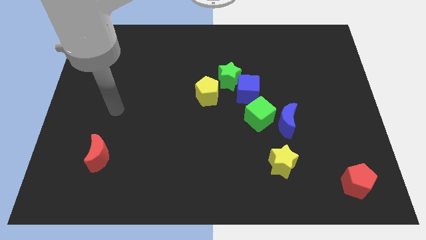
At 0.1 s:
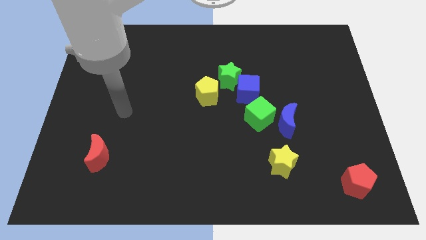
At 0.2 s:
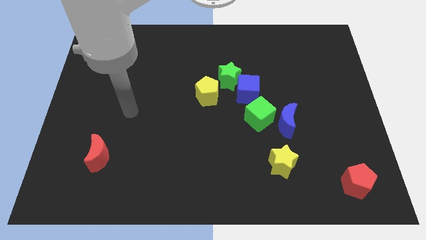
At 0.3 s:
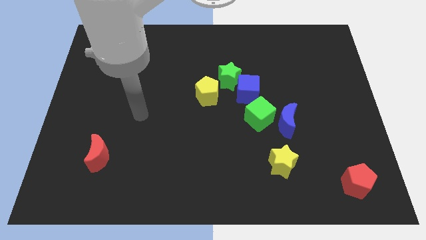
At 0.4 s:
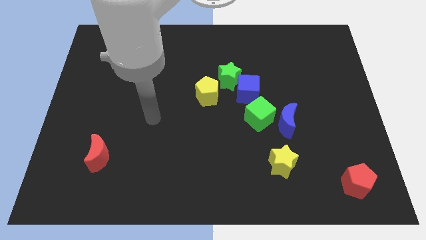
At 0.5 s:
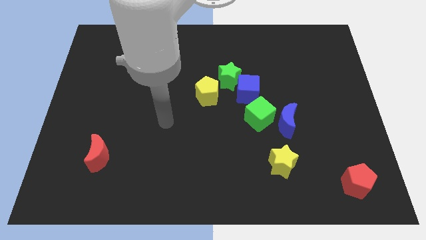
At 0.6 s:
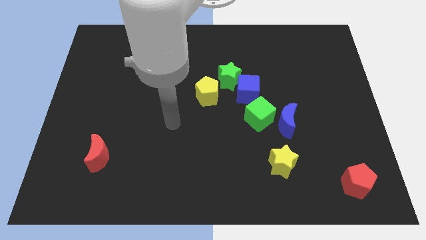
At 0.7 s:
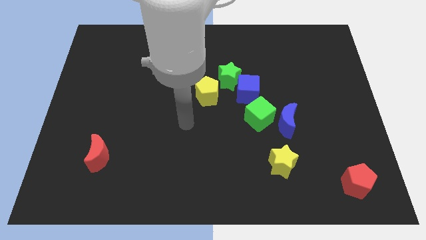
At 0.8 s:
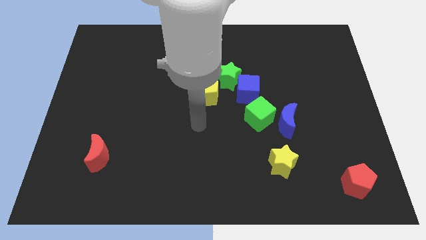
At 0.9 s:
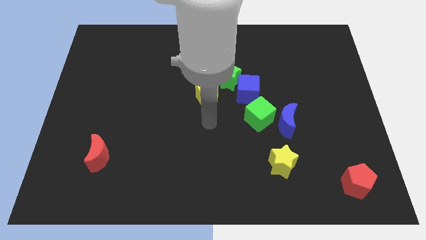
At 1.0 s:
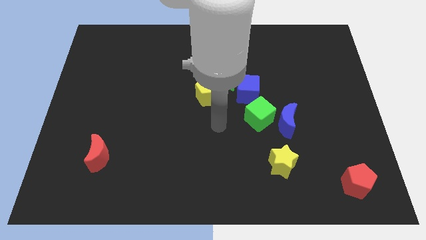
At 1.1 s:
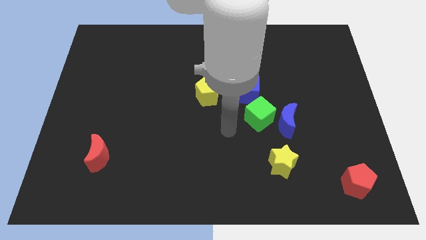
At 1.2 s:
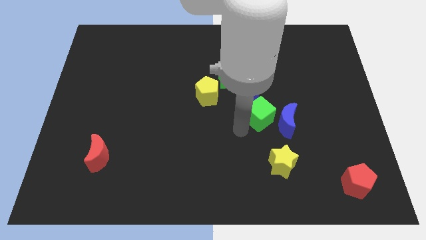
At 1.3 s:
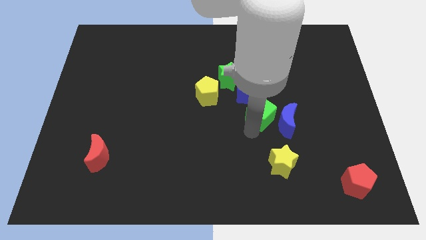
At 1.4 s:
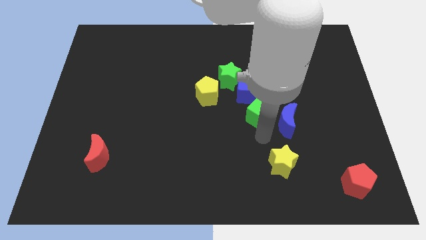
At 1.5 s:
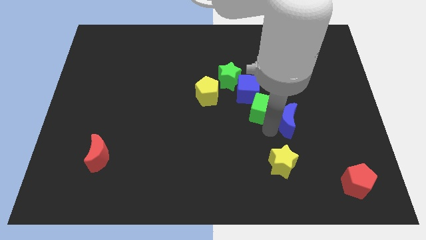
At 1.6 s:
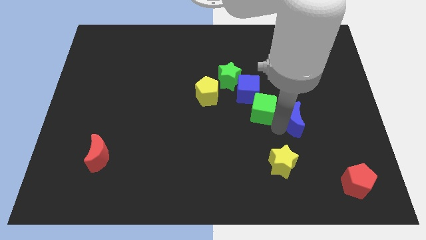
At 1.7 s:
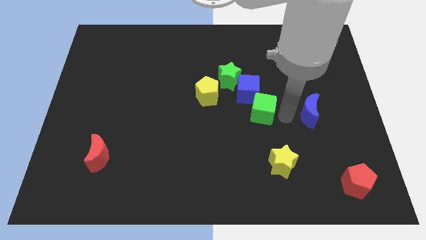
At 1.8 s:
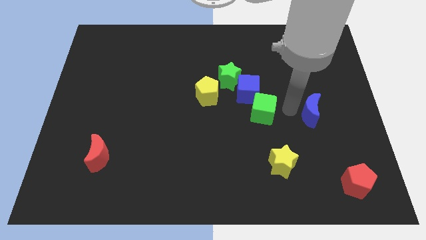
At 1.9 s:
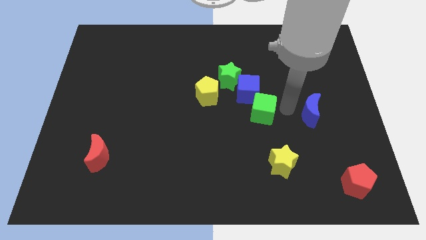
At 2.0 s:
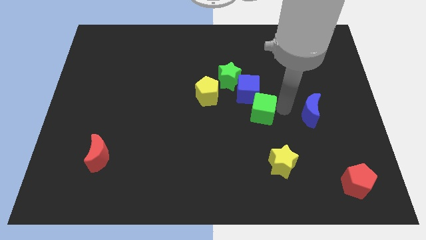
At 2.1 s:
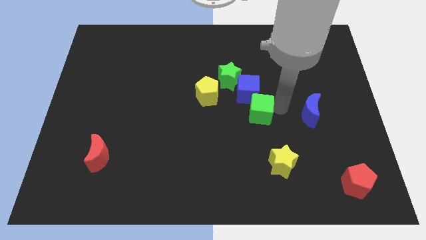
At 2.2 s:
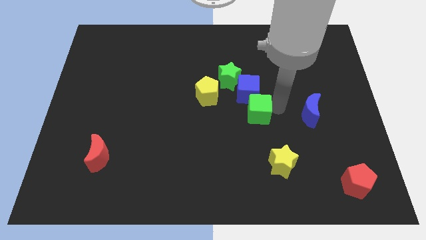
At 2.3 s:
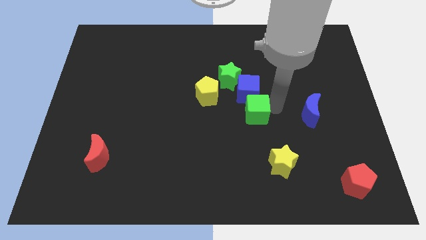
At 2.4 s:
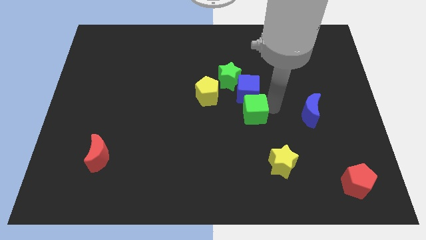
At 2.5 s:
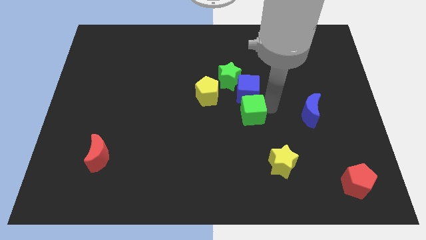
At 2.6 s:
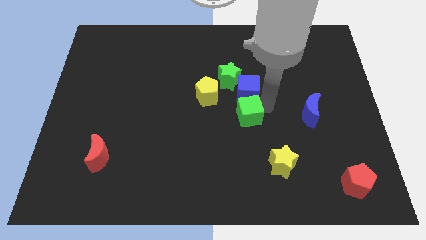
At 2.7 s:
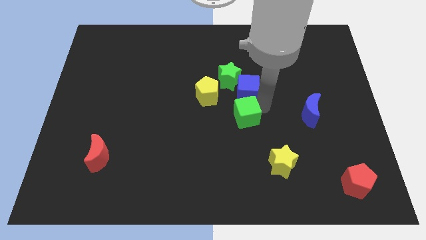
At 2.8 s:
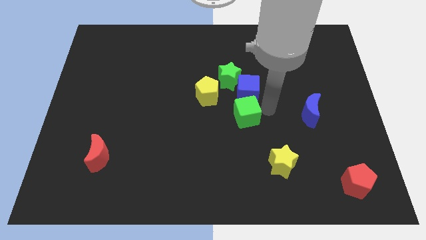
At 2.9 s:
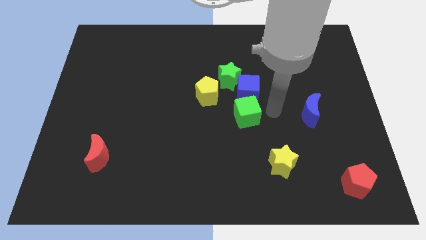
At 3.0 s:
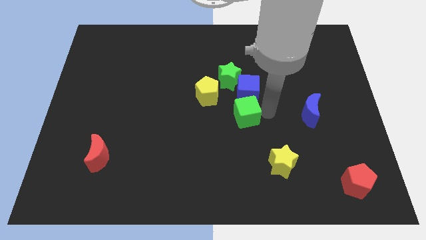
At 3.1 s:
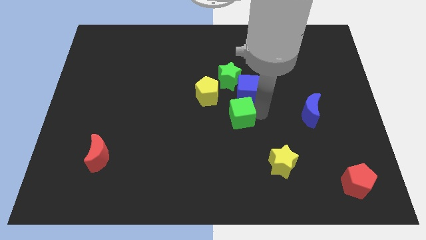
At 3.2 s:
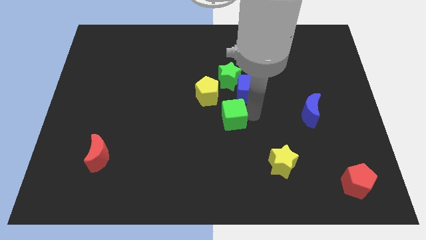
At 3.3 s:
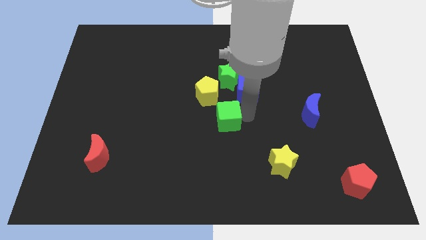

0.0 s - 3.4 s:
push the green cube somewhat to the left

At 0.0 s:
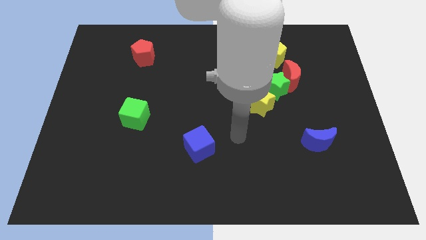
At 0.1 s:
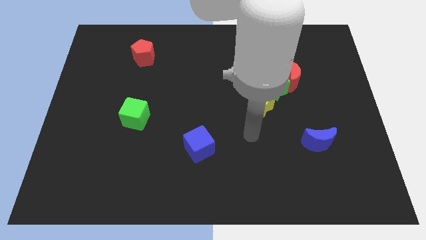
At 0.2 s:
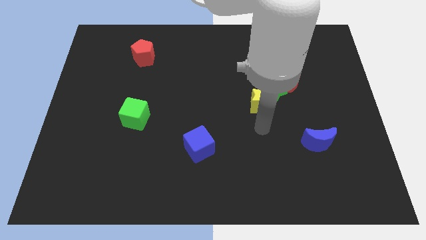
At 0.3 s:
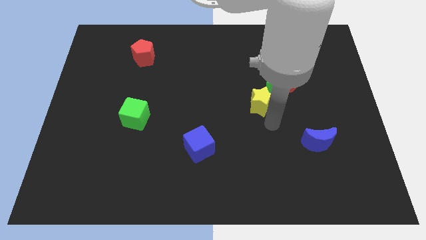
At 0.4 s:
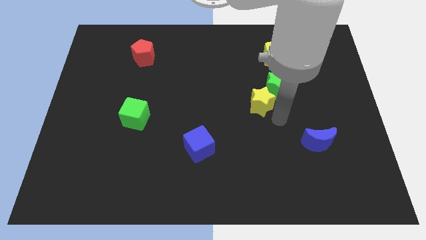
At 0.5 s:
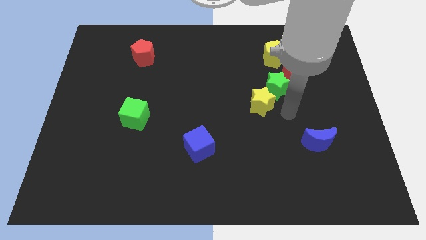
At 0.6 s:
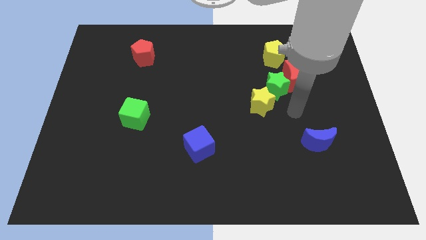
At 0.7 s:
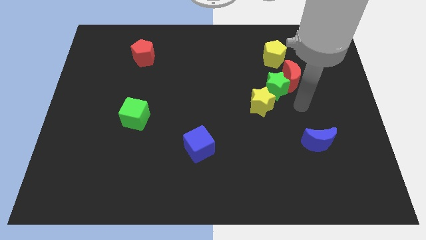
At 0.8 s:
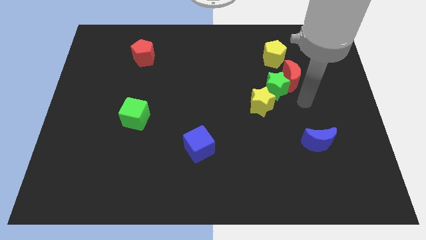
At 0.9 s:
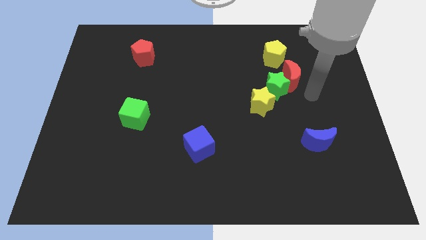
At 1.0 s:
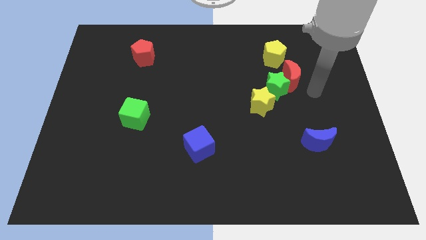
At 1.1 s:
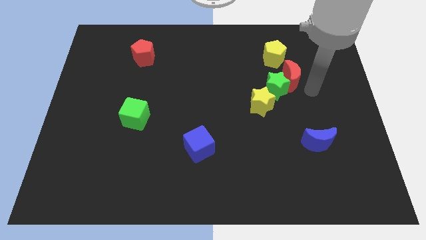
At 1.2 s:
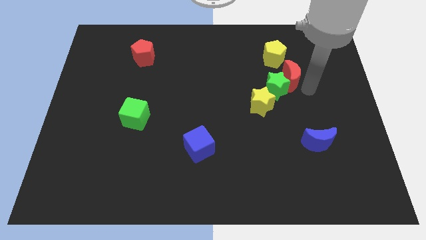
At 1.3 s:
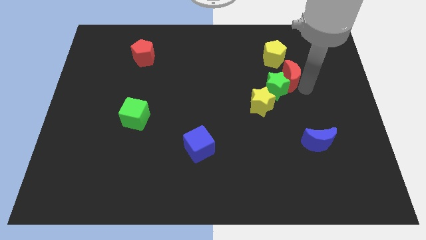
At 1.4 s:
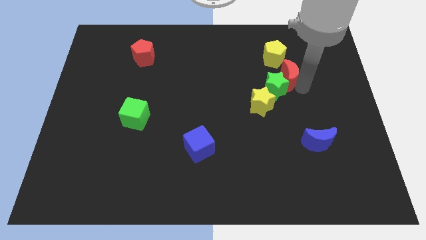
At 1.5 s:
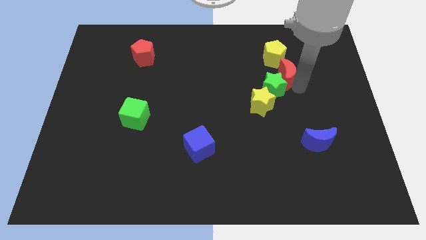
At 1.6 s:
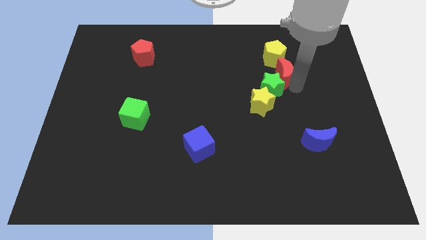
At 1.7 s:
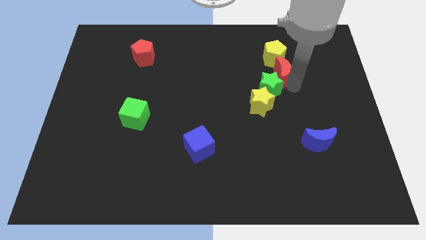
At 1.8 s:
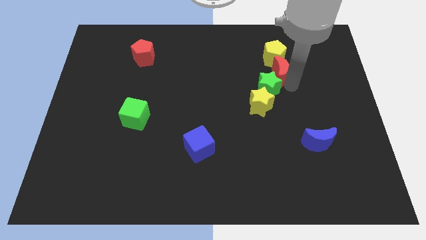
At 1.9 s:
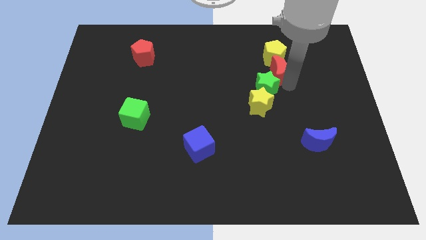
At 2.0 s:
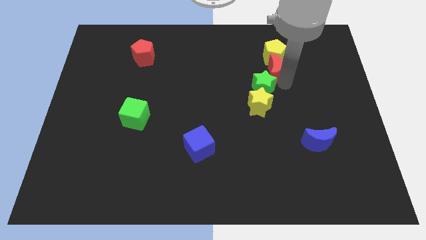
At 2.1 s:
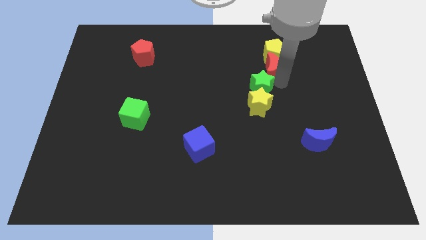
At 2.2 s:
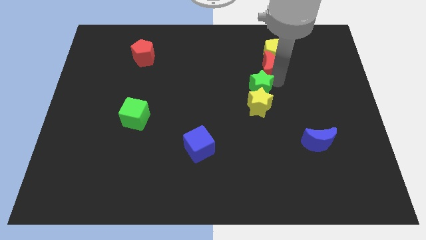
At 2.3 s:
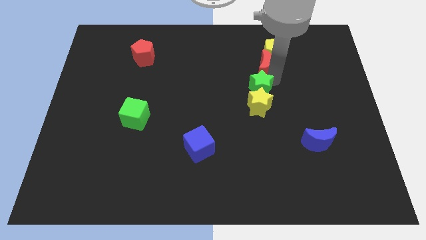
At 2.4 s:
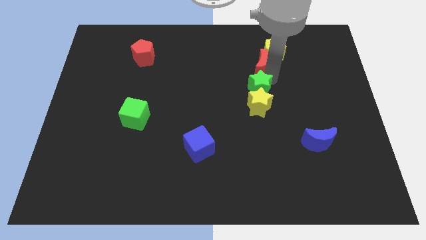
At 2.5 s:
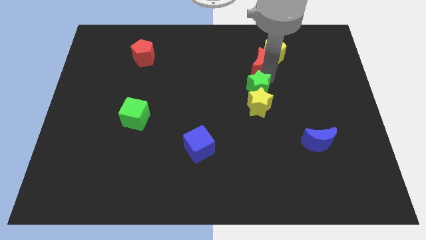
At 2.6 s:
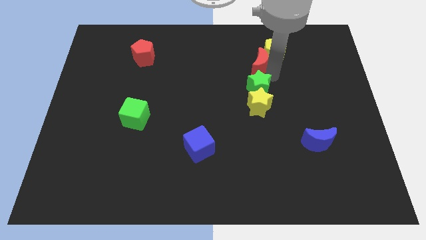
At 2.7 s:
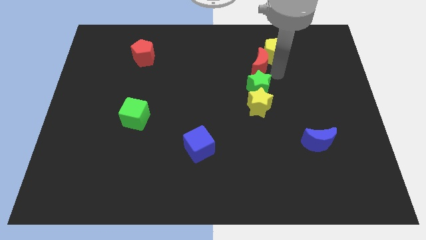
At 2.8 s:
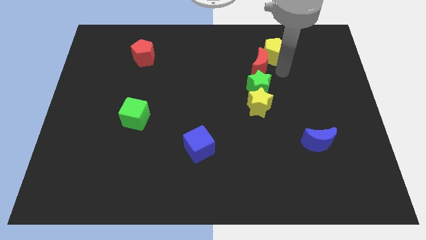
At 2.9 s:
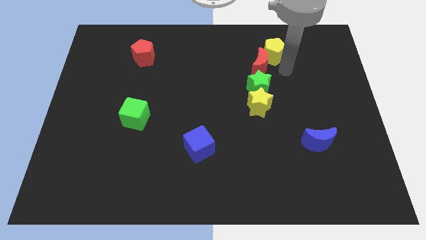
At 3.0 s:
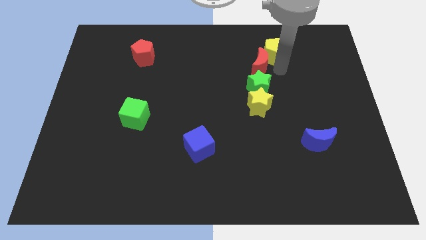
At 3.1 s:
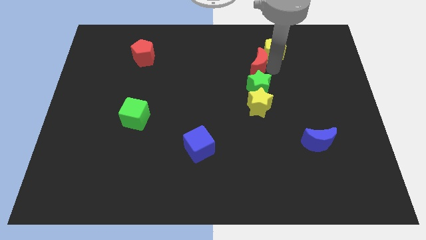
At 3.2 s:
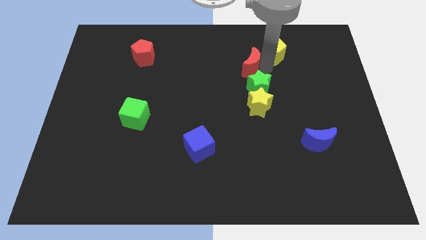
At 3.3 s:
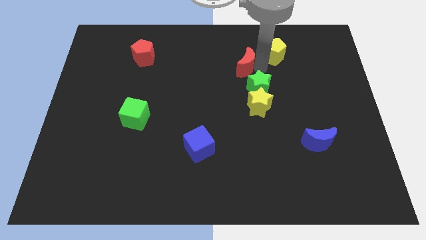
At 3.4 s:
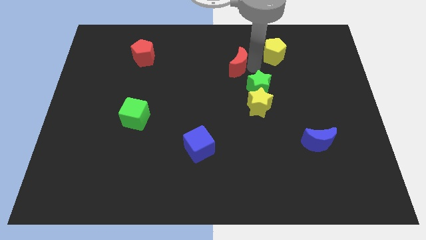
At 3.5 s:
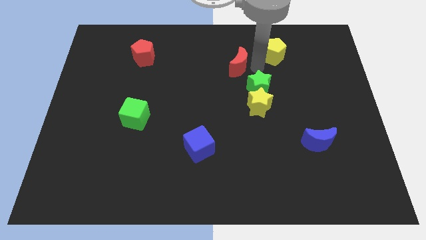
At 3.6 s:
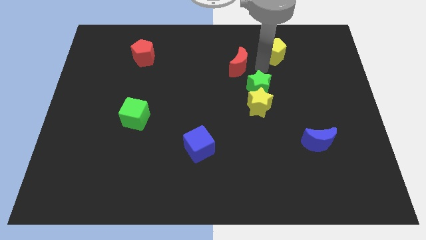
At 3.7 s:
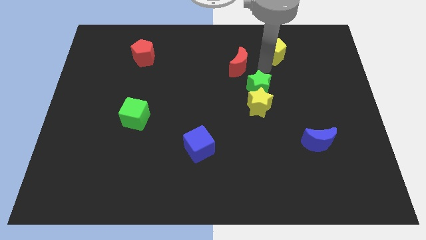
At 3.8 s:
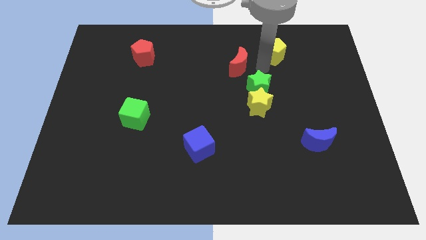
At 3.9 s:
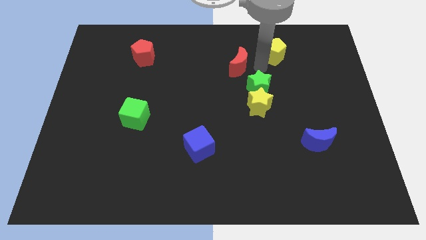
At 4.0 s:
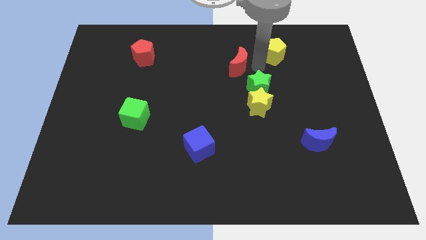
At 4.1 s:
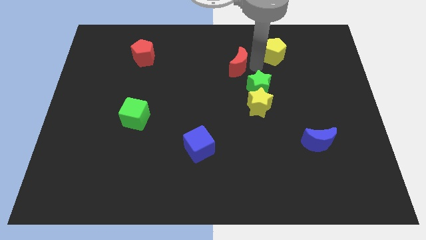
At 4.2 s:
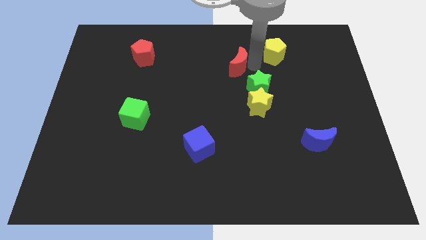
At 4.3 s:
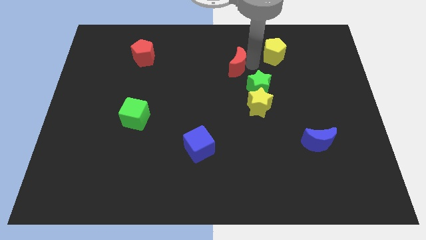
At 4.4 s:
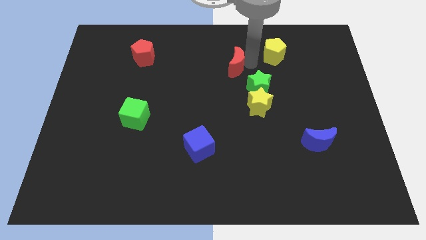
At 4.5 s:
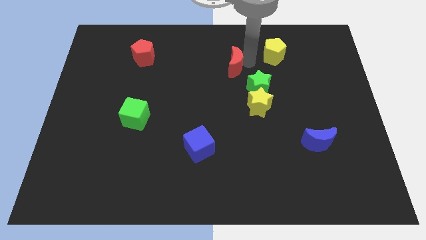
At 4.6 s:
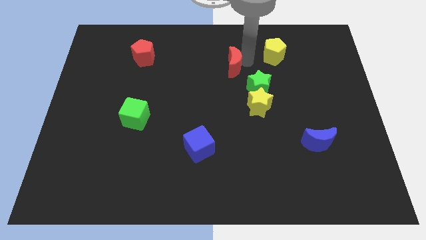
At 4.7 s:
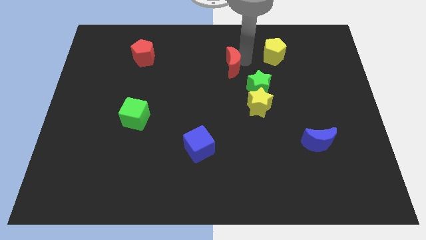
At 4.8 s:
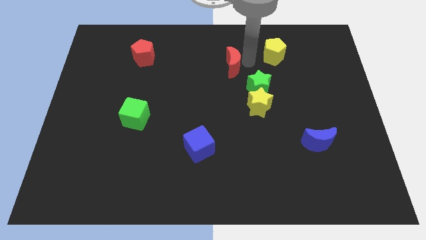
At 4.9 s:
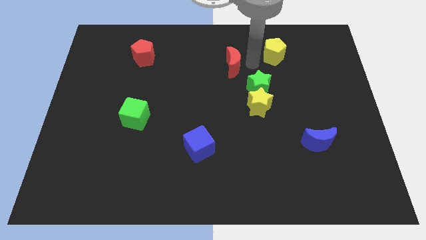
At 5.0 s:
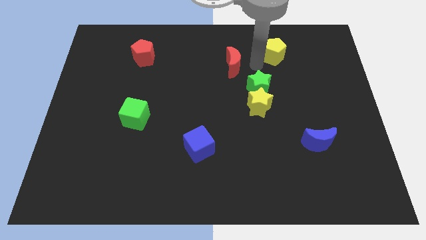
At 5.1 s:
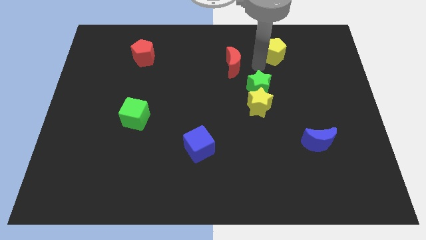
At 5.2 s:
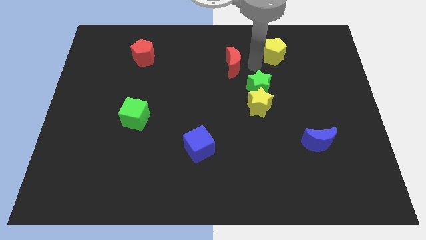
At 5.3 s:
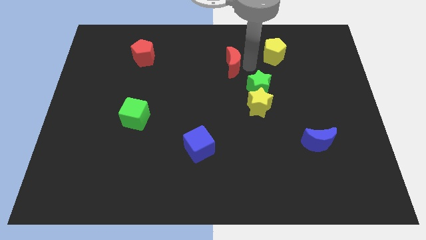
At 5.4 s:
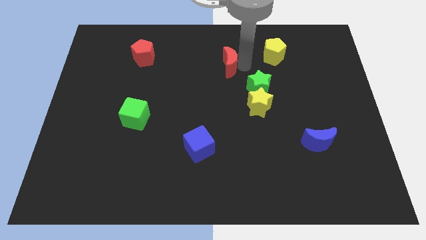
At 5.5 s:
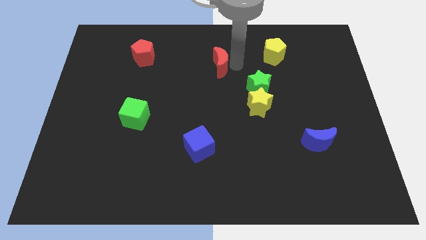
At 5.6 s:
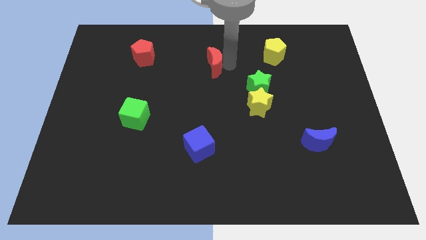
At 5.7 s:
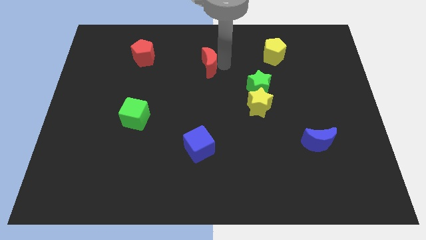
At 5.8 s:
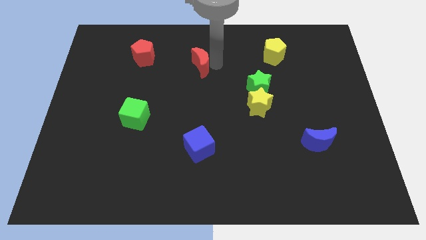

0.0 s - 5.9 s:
push the red moon left
